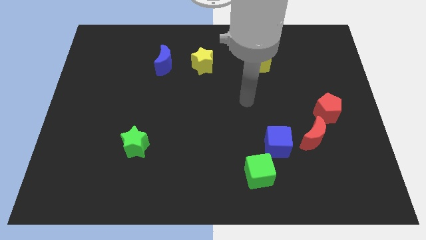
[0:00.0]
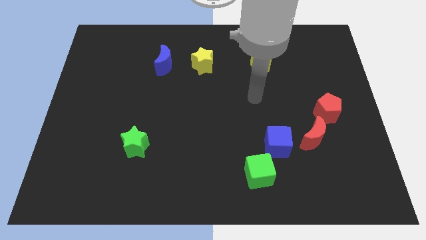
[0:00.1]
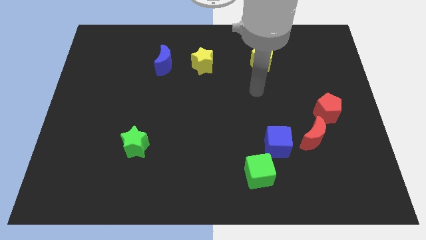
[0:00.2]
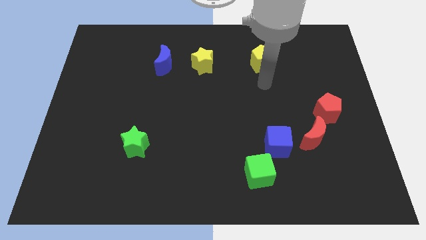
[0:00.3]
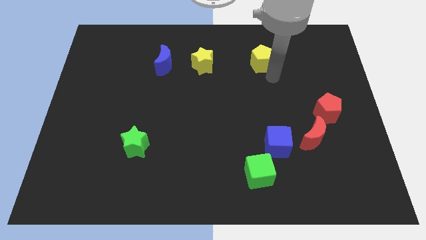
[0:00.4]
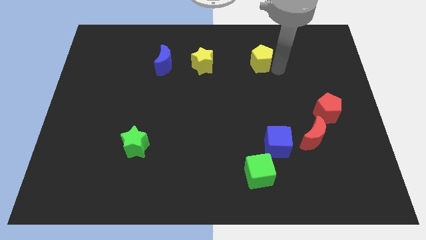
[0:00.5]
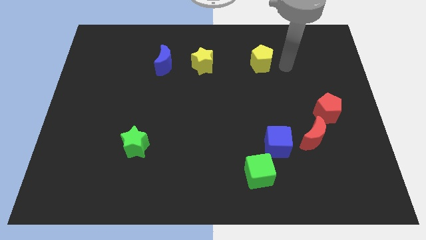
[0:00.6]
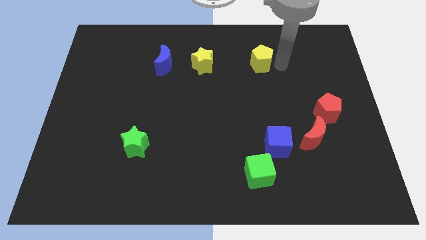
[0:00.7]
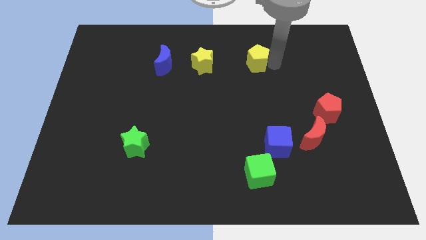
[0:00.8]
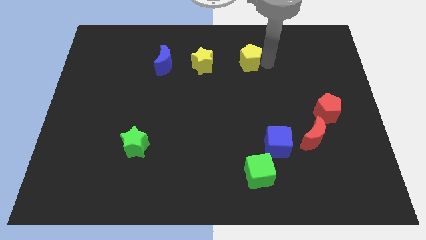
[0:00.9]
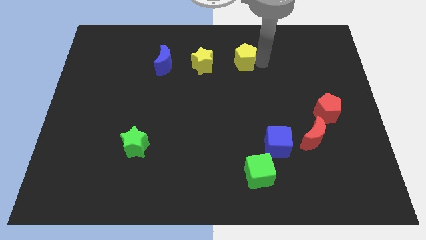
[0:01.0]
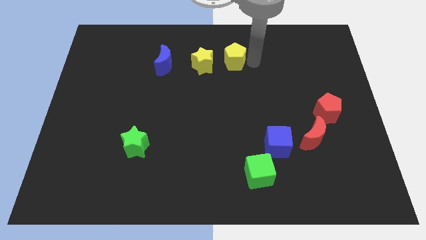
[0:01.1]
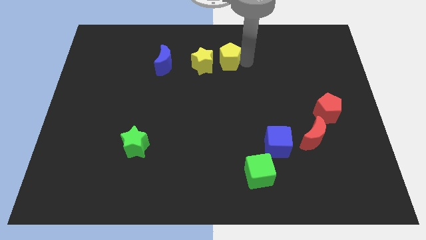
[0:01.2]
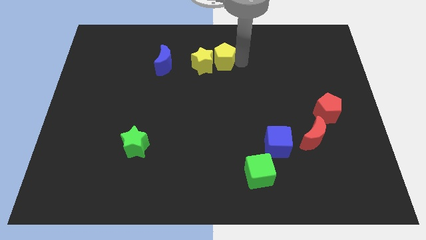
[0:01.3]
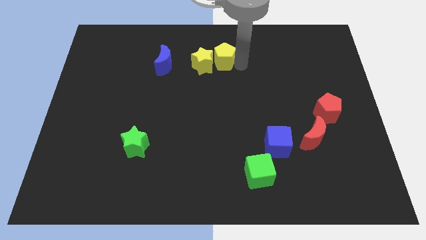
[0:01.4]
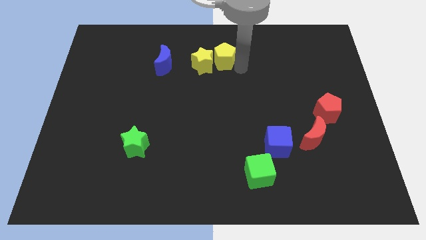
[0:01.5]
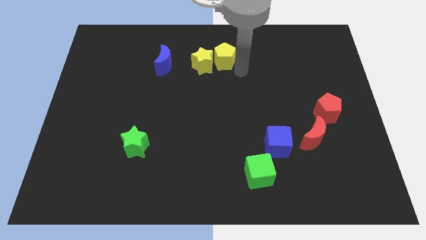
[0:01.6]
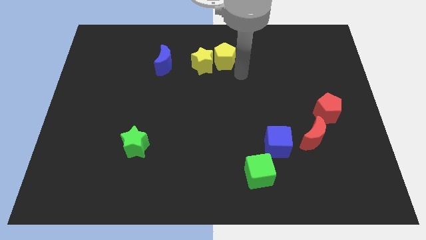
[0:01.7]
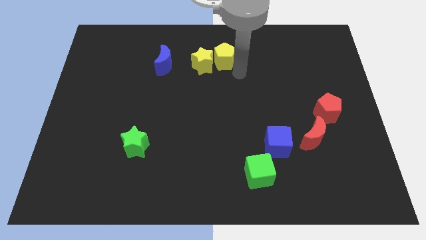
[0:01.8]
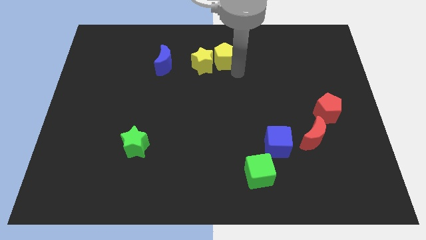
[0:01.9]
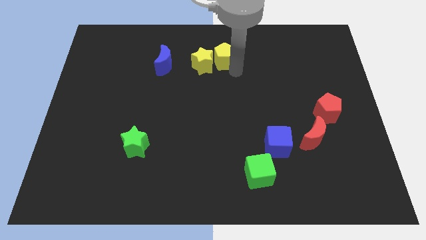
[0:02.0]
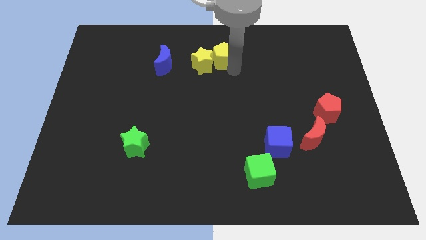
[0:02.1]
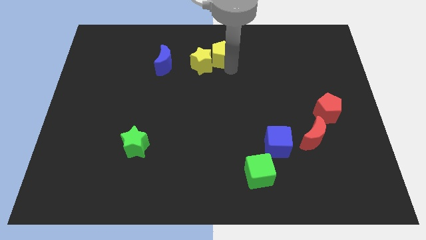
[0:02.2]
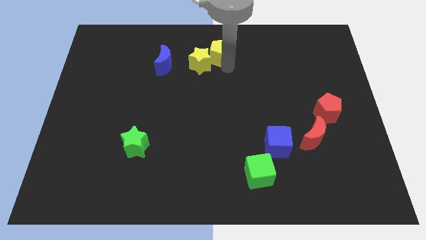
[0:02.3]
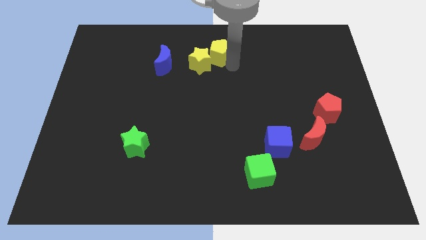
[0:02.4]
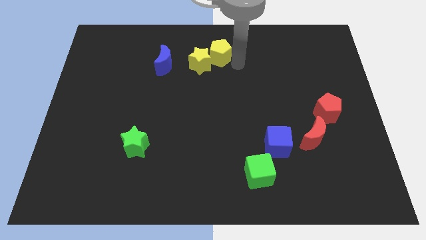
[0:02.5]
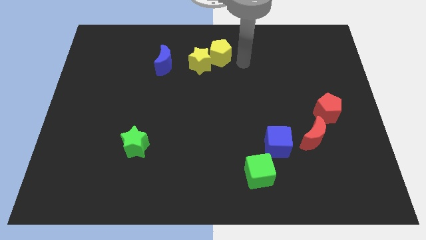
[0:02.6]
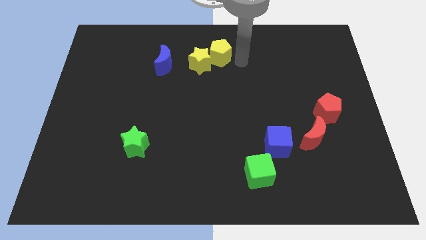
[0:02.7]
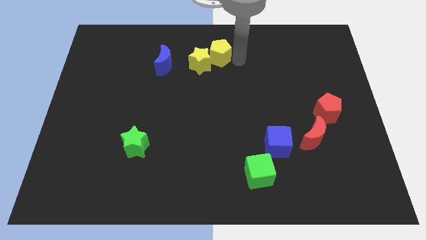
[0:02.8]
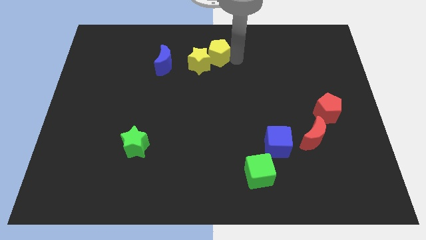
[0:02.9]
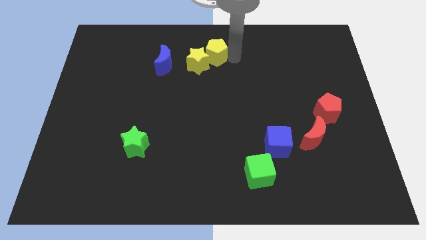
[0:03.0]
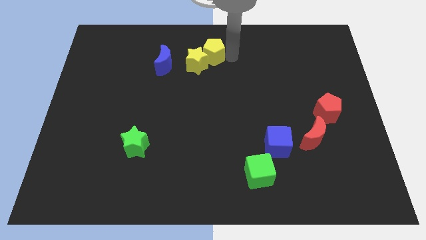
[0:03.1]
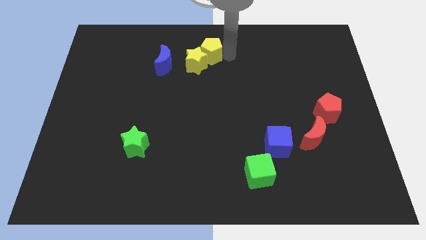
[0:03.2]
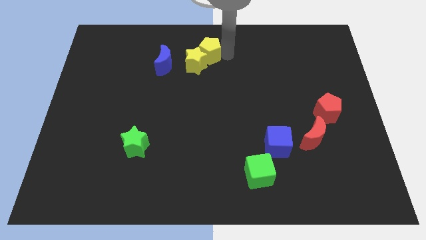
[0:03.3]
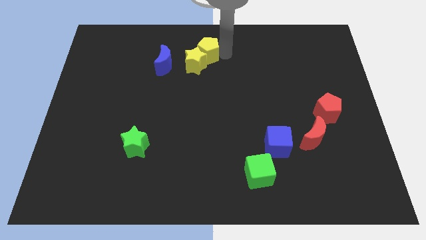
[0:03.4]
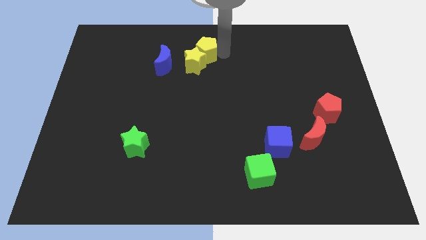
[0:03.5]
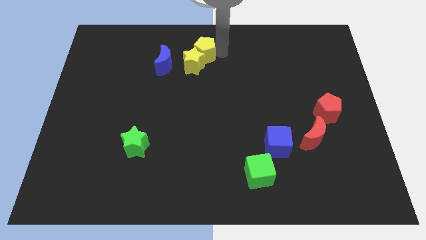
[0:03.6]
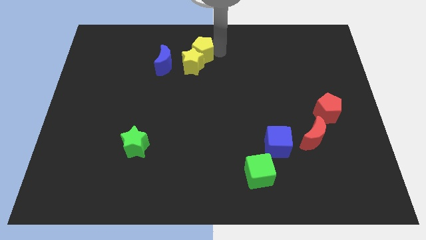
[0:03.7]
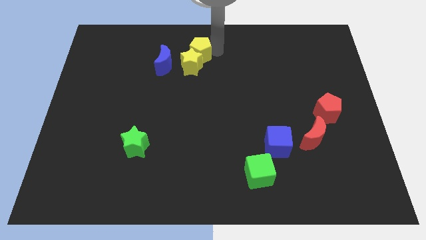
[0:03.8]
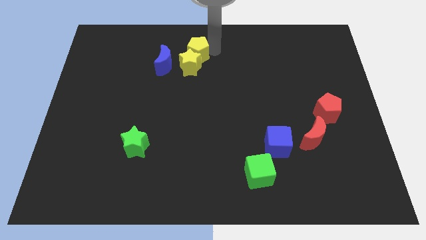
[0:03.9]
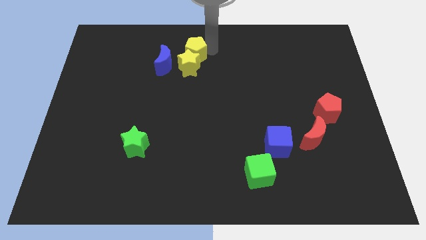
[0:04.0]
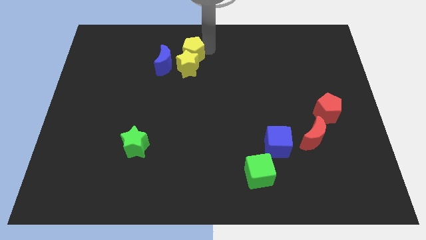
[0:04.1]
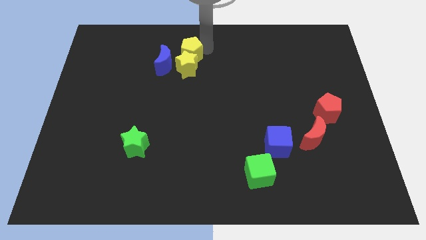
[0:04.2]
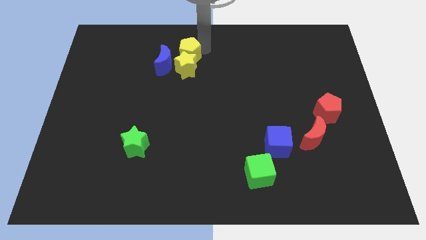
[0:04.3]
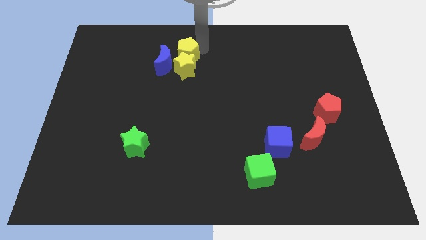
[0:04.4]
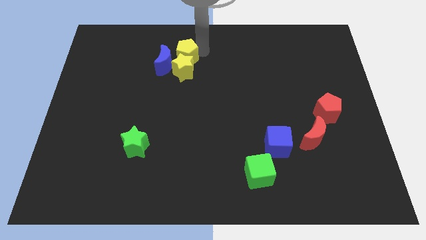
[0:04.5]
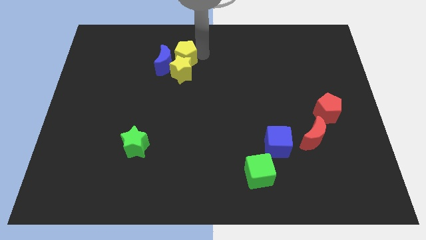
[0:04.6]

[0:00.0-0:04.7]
push the yellow pentagon to the left

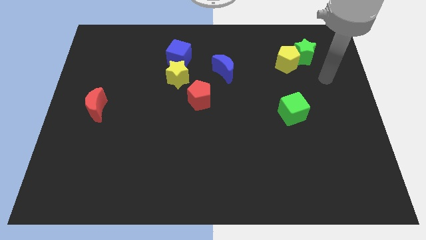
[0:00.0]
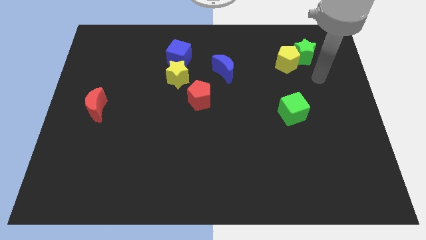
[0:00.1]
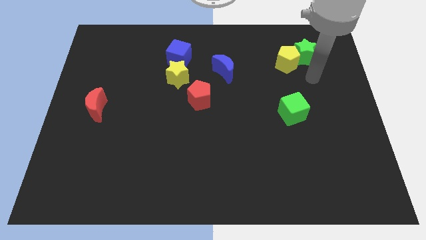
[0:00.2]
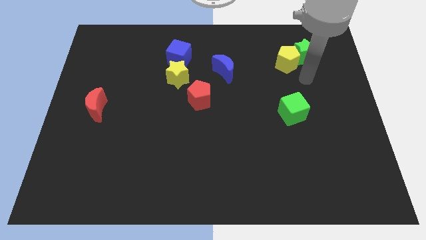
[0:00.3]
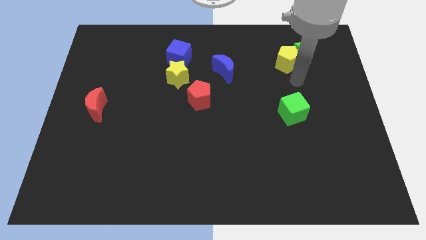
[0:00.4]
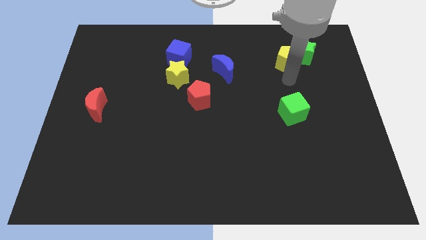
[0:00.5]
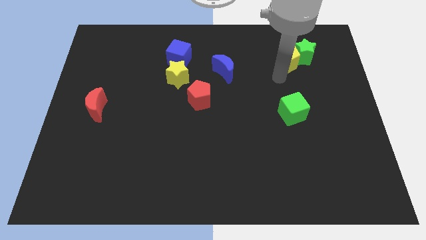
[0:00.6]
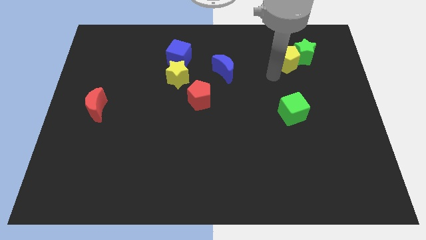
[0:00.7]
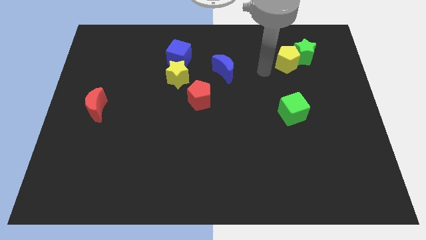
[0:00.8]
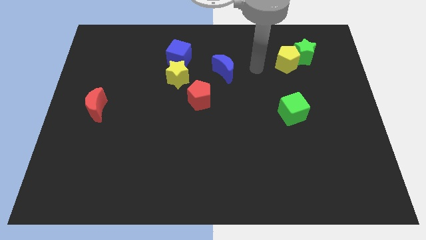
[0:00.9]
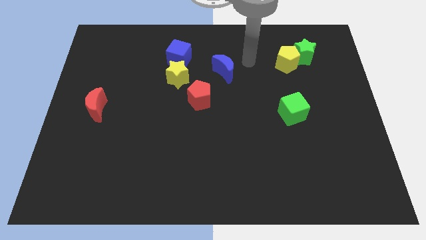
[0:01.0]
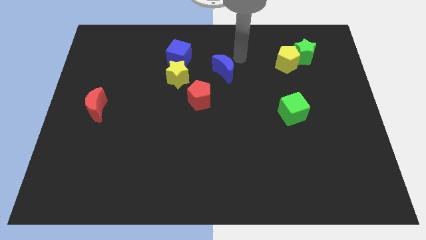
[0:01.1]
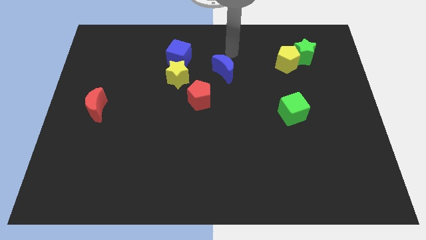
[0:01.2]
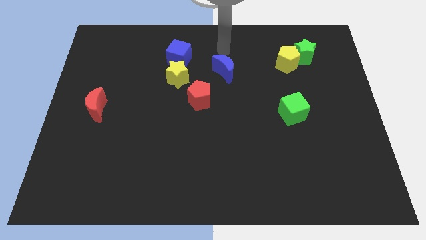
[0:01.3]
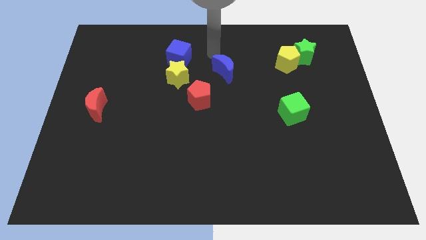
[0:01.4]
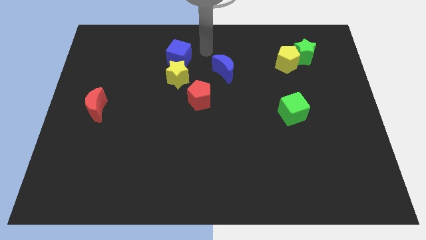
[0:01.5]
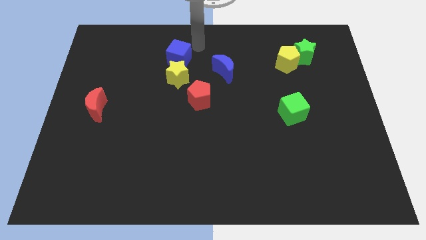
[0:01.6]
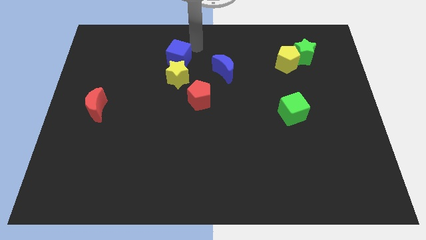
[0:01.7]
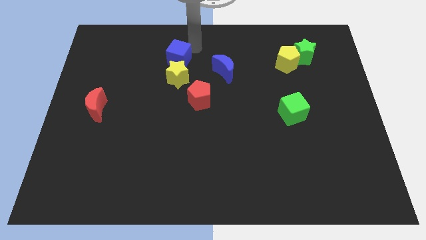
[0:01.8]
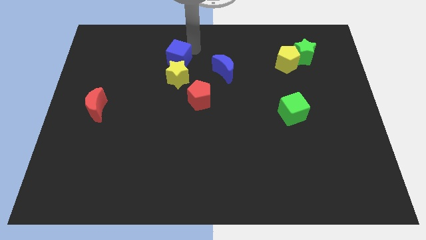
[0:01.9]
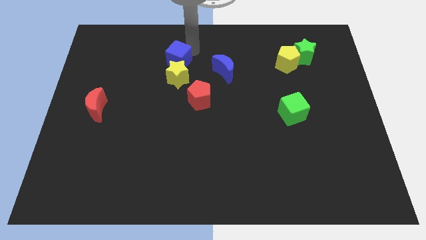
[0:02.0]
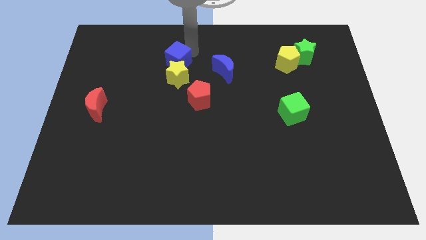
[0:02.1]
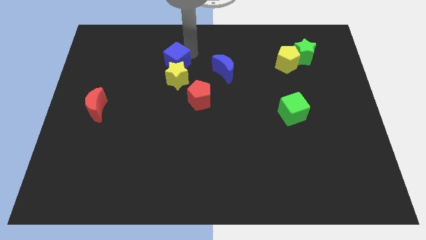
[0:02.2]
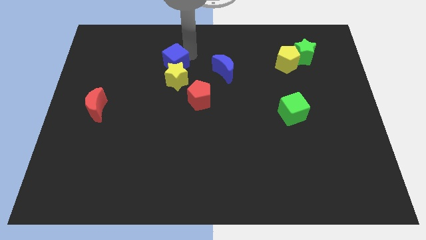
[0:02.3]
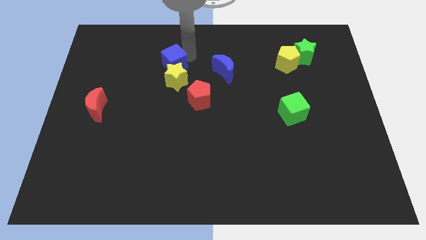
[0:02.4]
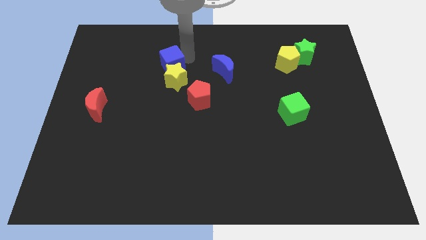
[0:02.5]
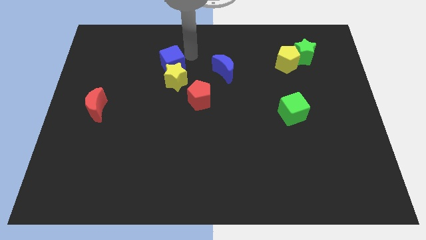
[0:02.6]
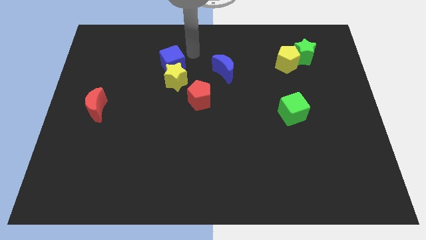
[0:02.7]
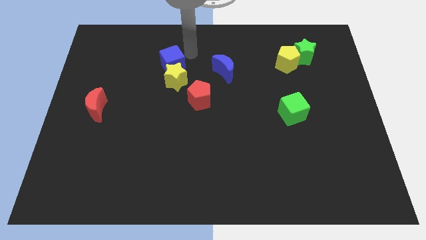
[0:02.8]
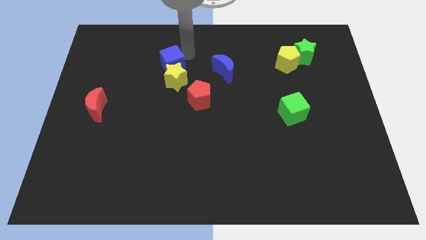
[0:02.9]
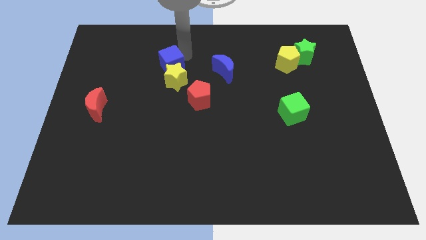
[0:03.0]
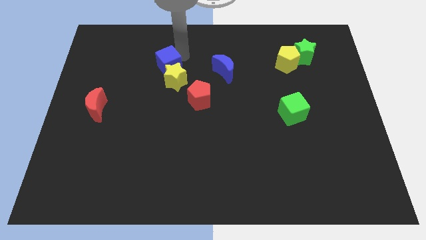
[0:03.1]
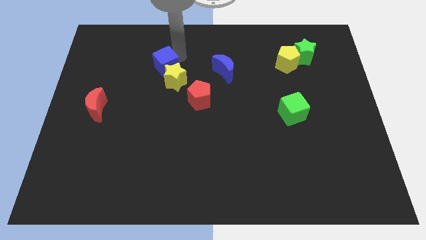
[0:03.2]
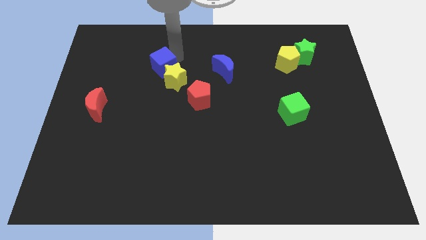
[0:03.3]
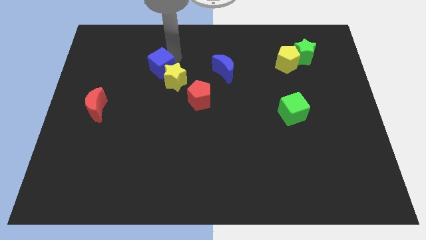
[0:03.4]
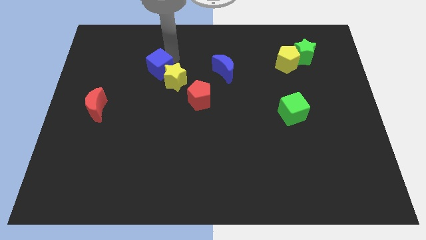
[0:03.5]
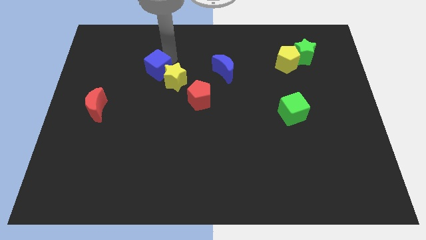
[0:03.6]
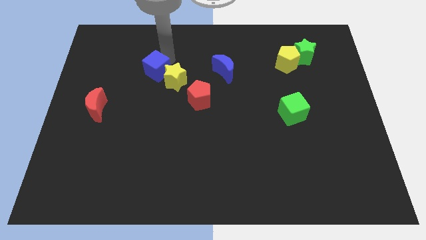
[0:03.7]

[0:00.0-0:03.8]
push the blue cube a little bit down and left diagonally
